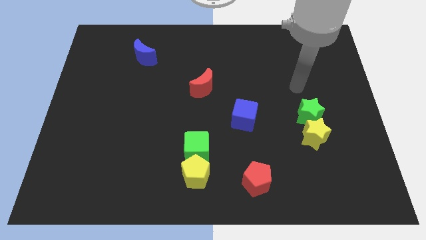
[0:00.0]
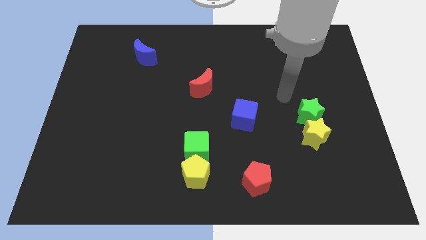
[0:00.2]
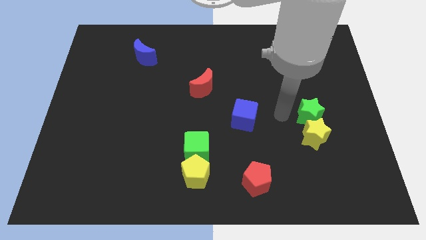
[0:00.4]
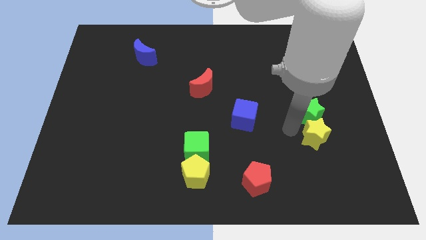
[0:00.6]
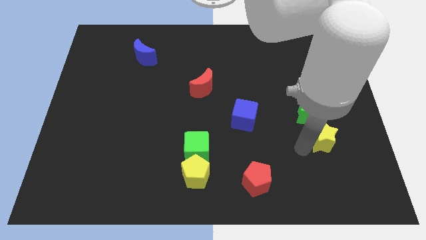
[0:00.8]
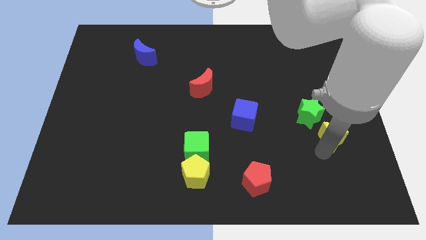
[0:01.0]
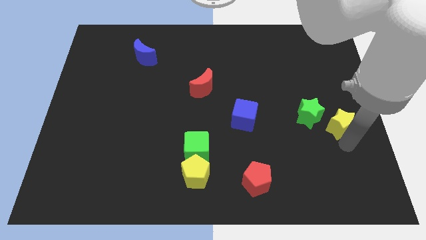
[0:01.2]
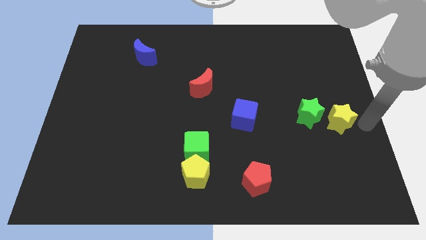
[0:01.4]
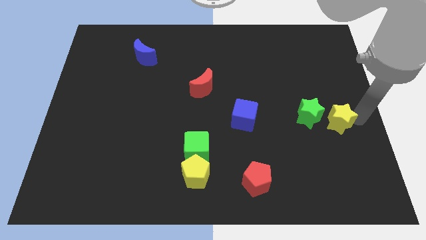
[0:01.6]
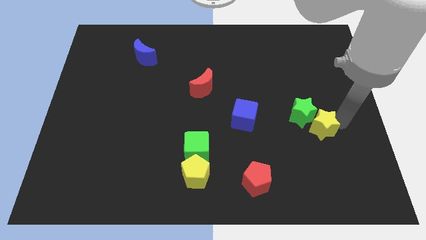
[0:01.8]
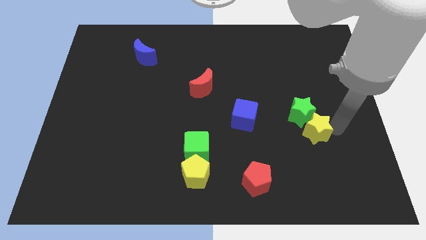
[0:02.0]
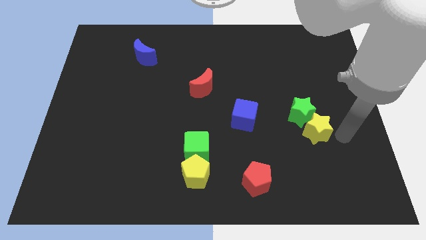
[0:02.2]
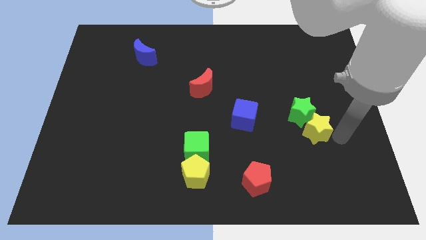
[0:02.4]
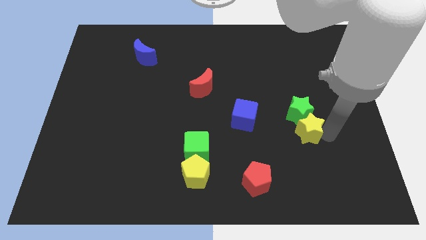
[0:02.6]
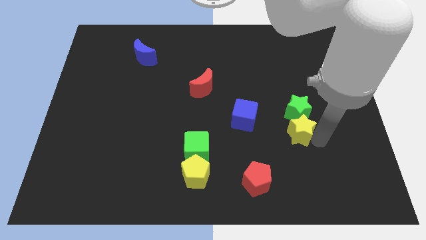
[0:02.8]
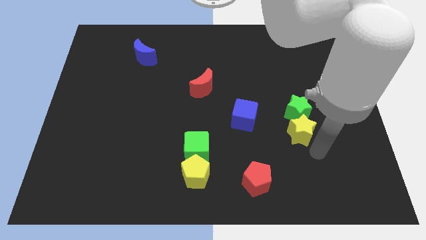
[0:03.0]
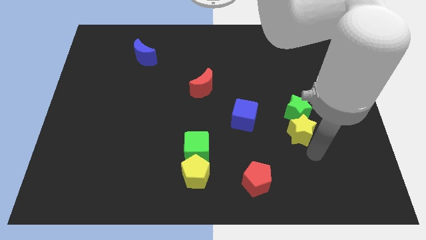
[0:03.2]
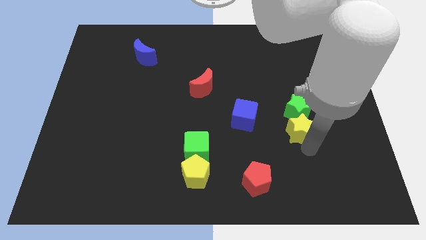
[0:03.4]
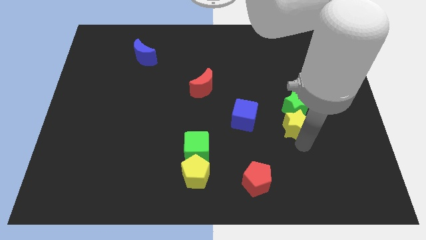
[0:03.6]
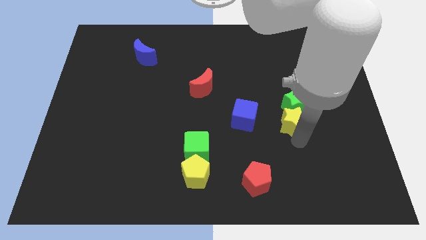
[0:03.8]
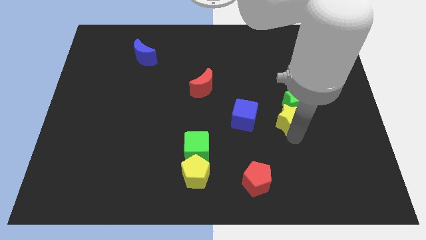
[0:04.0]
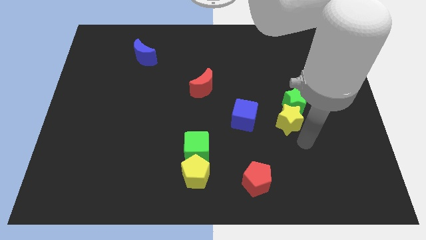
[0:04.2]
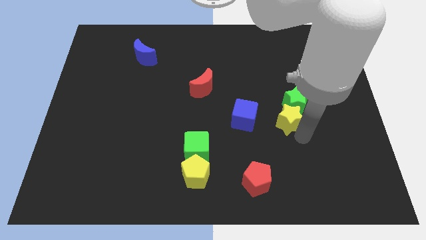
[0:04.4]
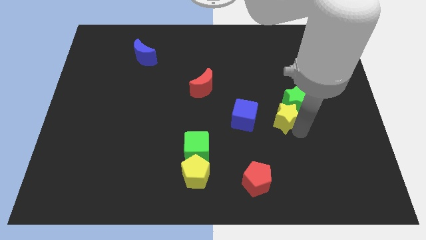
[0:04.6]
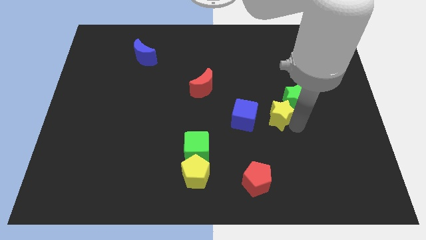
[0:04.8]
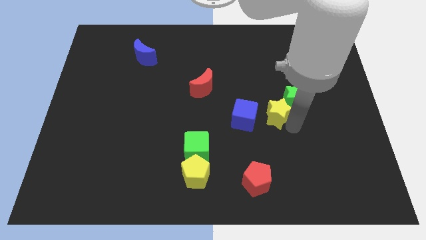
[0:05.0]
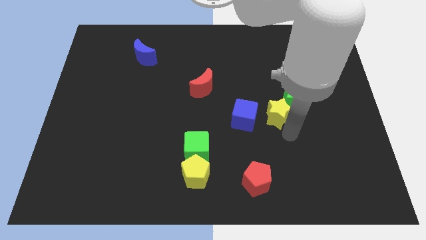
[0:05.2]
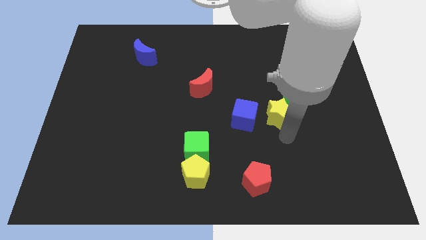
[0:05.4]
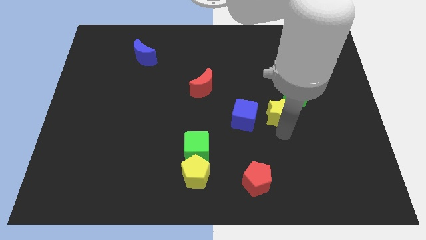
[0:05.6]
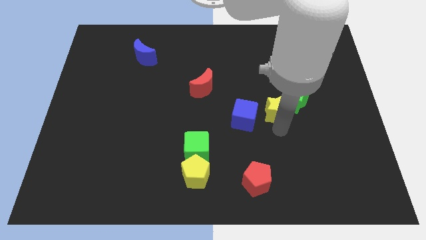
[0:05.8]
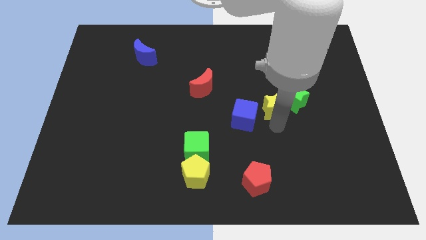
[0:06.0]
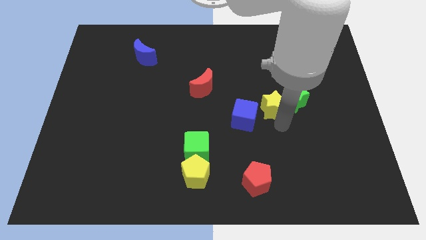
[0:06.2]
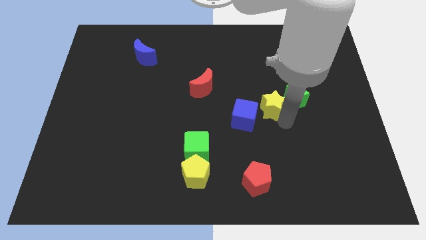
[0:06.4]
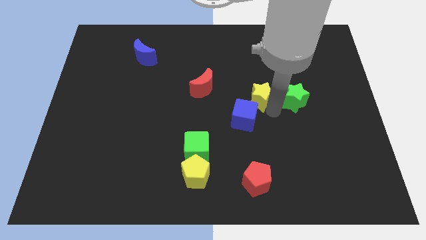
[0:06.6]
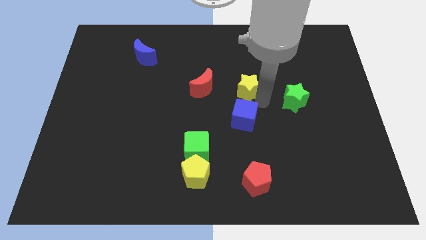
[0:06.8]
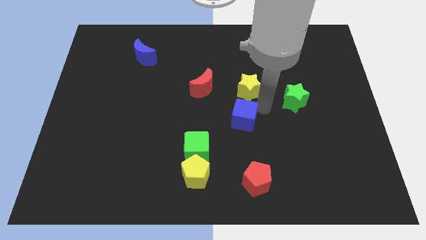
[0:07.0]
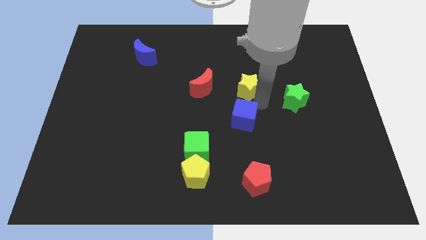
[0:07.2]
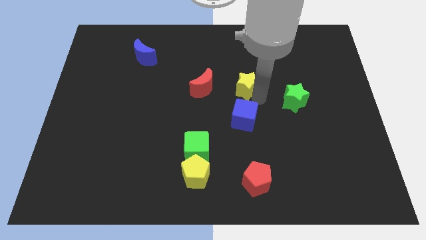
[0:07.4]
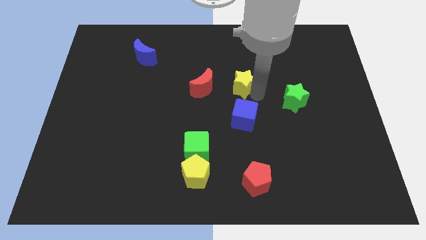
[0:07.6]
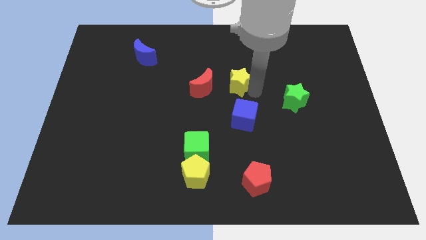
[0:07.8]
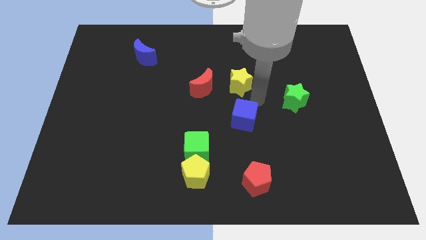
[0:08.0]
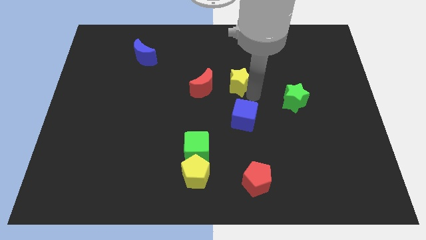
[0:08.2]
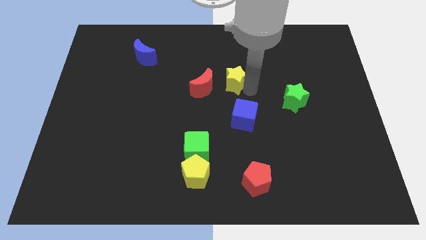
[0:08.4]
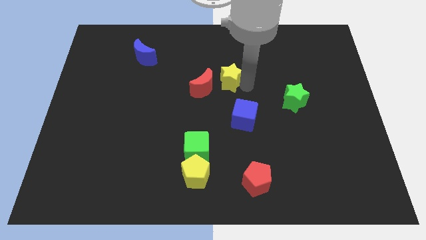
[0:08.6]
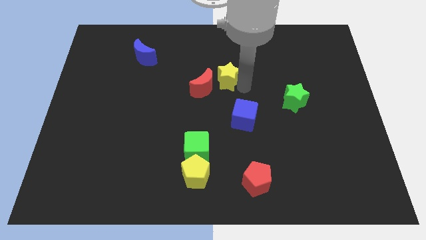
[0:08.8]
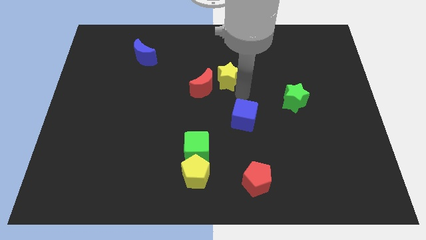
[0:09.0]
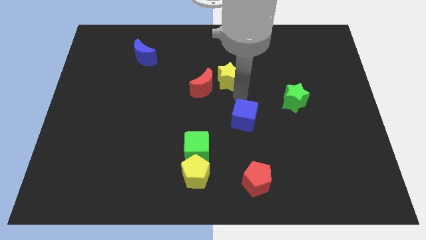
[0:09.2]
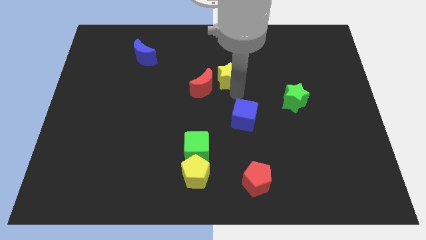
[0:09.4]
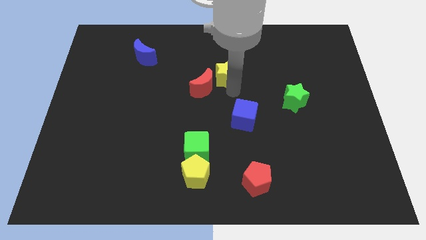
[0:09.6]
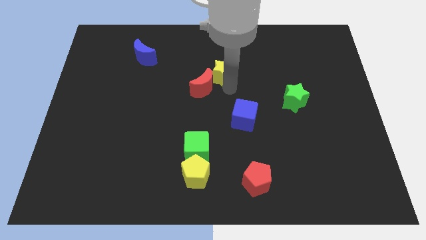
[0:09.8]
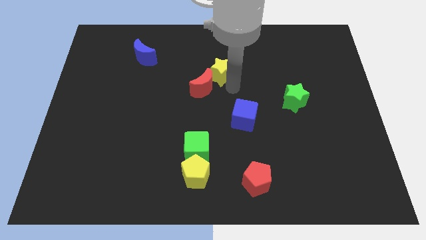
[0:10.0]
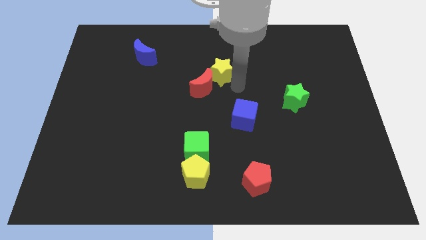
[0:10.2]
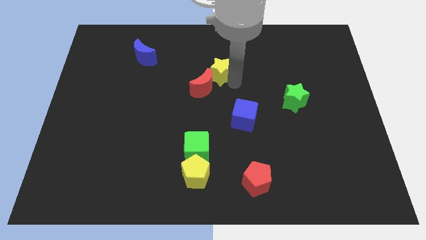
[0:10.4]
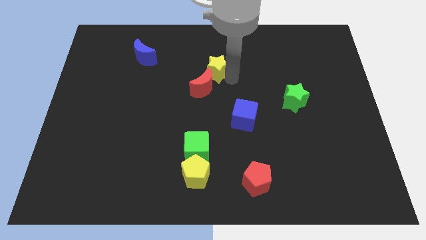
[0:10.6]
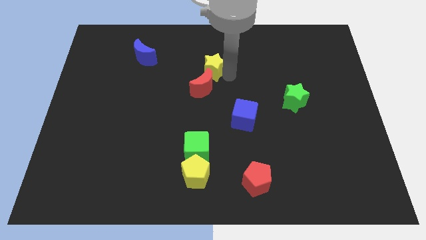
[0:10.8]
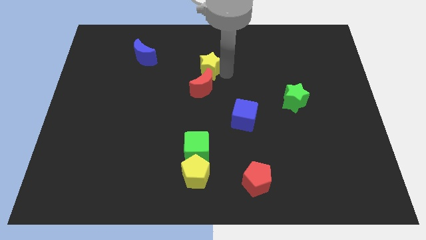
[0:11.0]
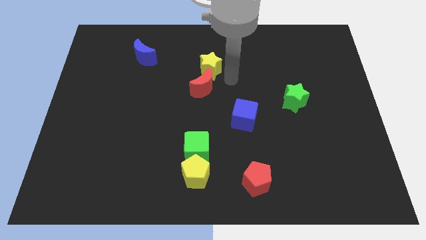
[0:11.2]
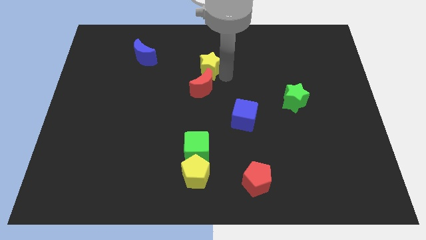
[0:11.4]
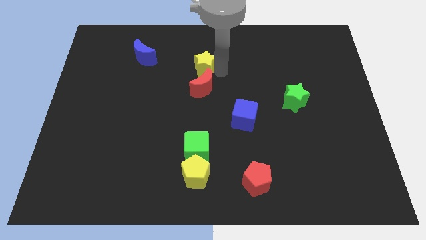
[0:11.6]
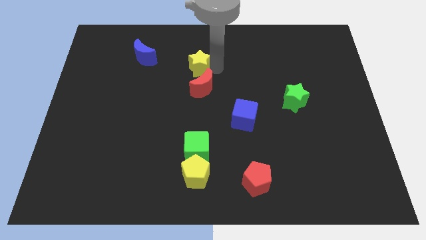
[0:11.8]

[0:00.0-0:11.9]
slide the yellow star to the right side of the blue moon
